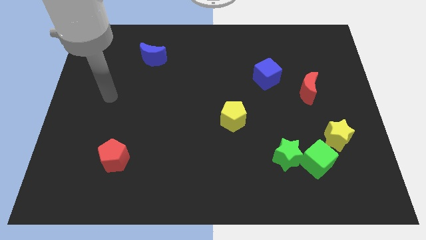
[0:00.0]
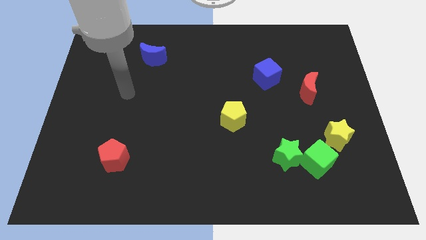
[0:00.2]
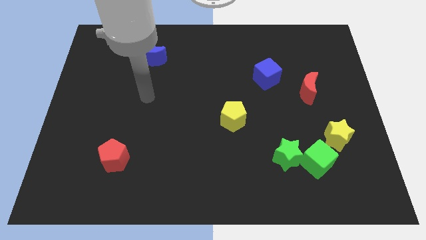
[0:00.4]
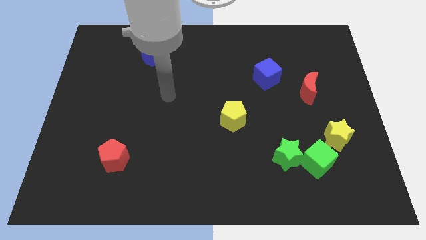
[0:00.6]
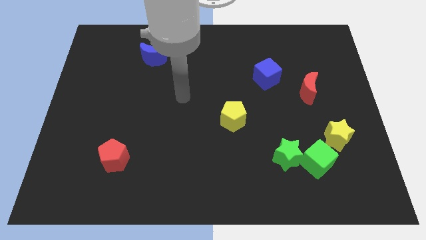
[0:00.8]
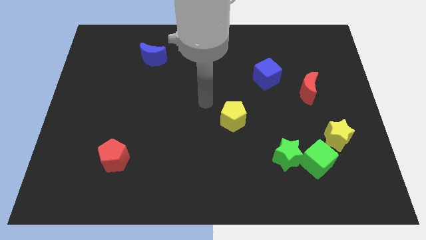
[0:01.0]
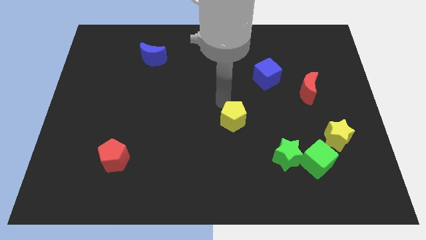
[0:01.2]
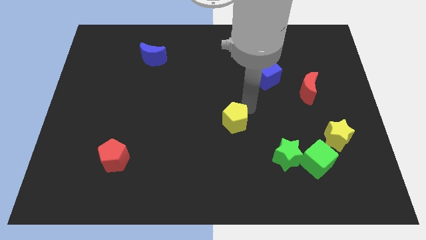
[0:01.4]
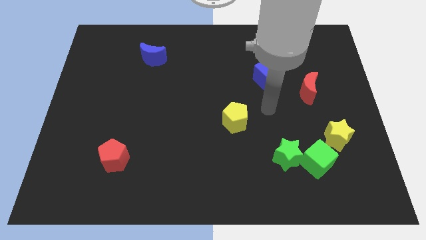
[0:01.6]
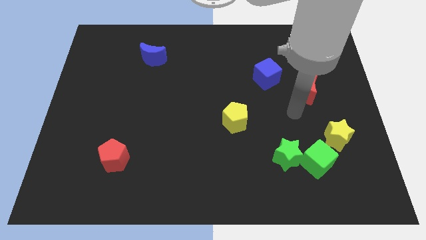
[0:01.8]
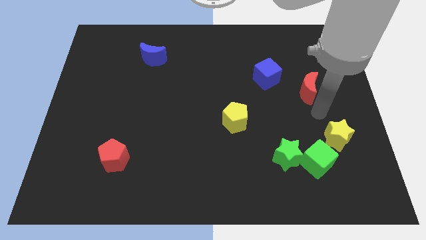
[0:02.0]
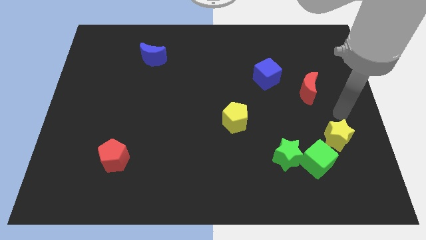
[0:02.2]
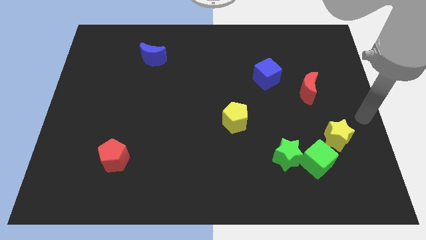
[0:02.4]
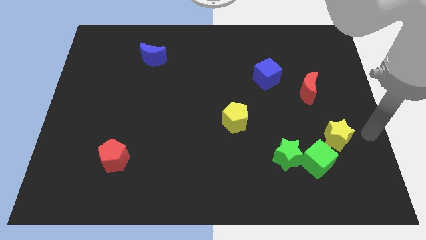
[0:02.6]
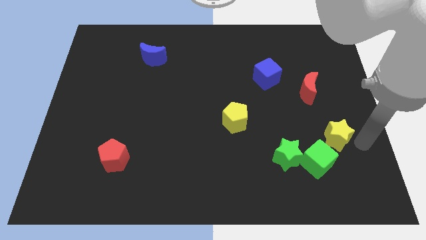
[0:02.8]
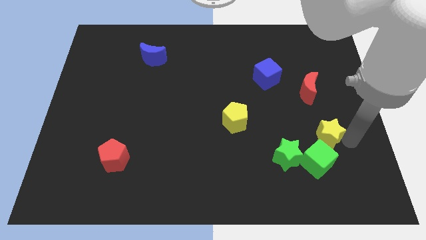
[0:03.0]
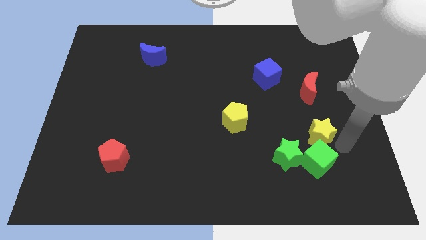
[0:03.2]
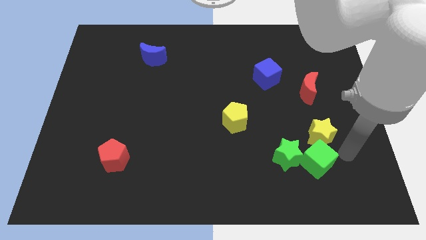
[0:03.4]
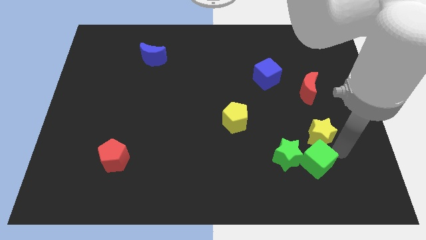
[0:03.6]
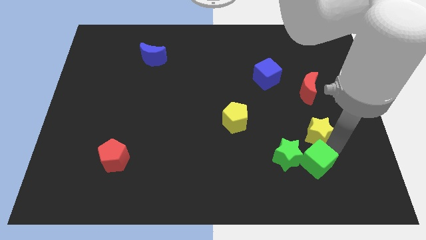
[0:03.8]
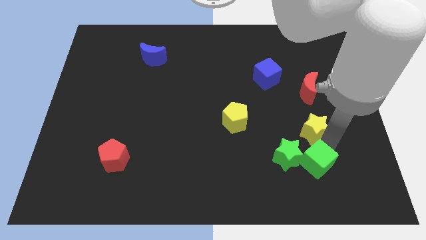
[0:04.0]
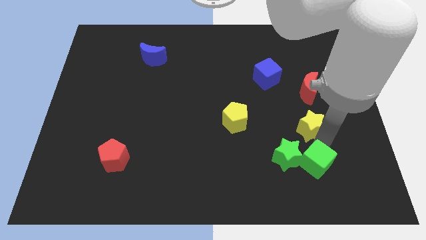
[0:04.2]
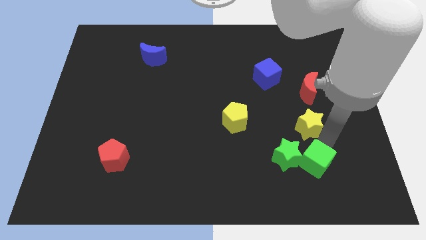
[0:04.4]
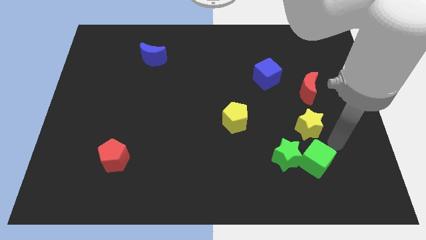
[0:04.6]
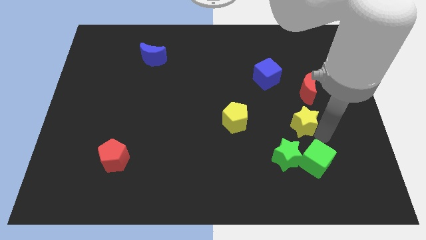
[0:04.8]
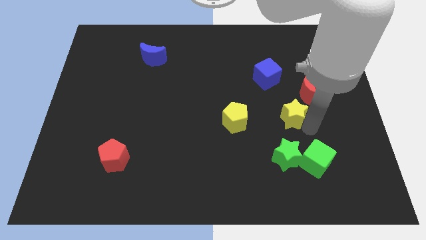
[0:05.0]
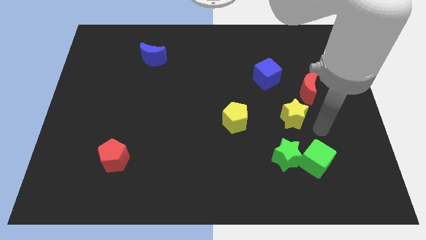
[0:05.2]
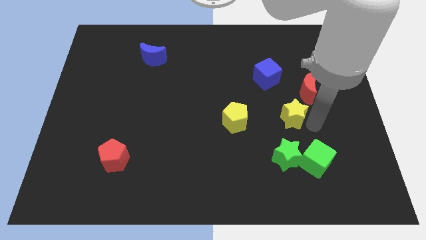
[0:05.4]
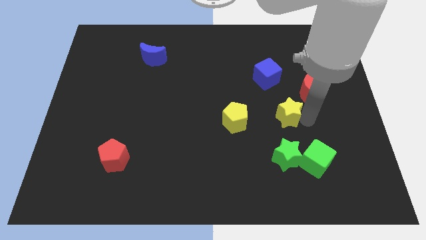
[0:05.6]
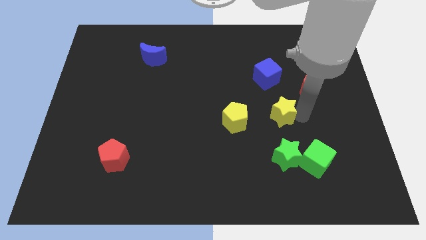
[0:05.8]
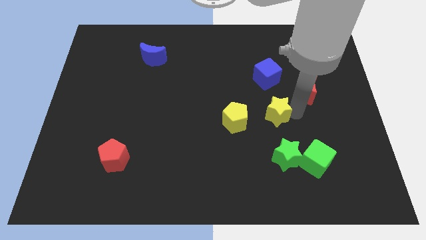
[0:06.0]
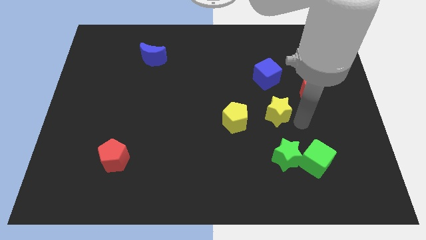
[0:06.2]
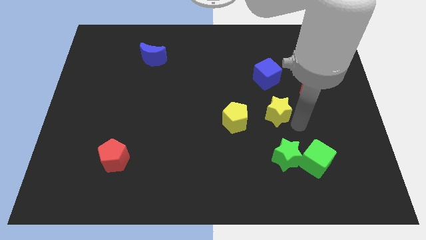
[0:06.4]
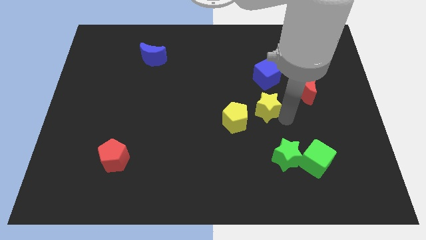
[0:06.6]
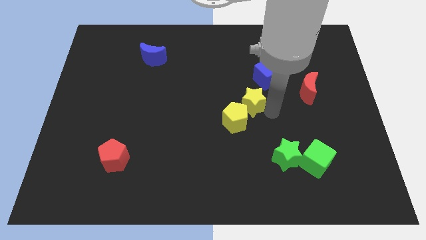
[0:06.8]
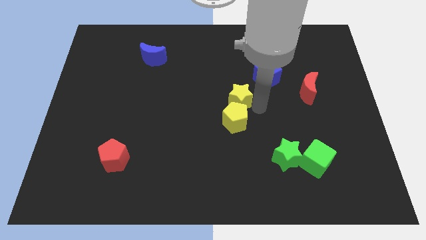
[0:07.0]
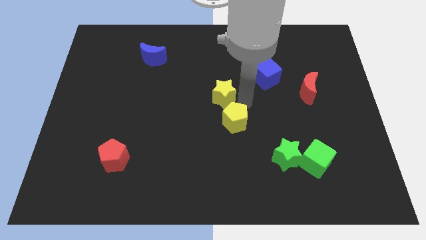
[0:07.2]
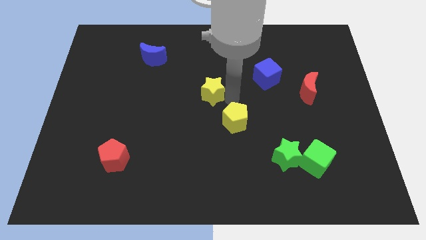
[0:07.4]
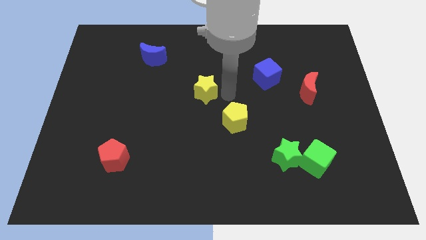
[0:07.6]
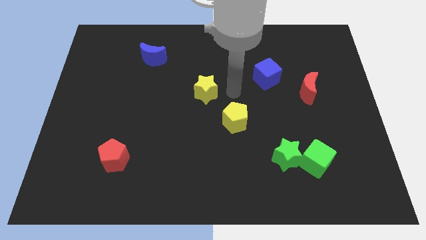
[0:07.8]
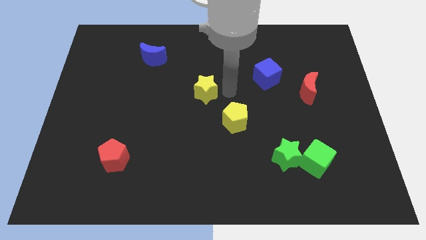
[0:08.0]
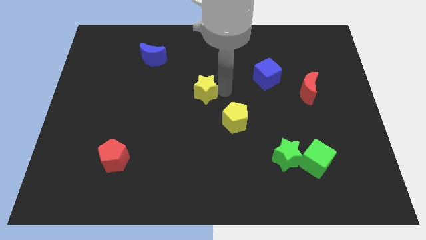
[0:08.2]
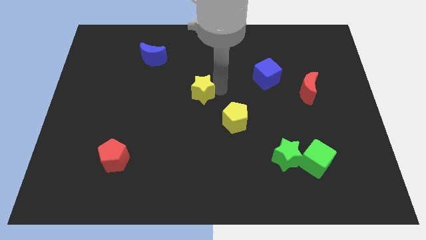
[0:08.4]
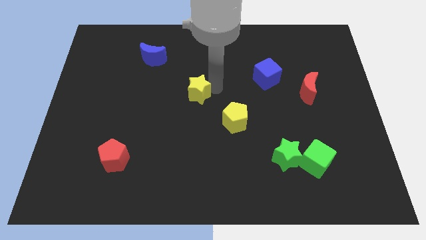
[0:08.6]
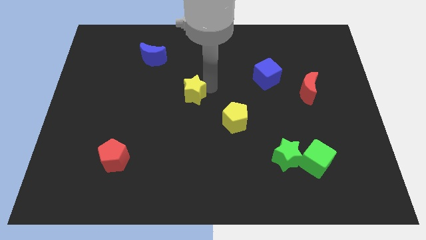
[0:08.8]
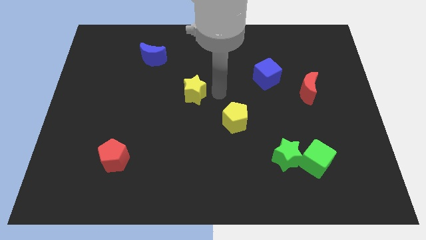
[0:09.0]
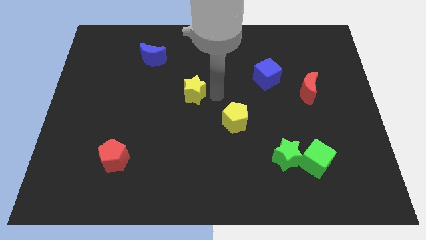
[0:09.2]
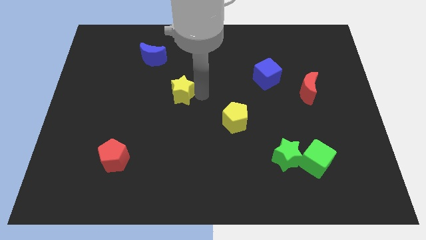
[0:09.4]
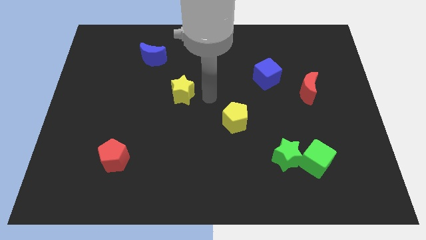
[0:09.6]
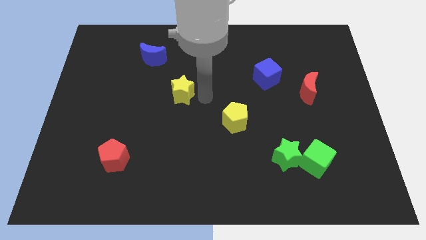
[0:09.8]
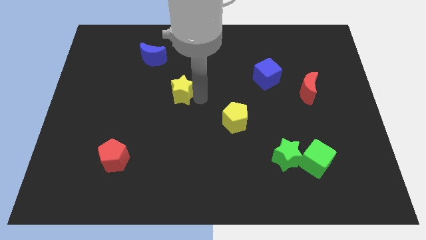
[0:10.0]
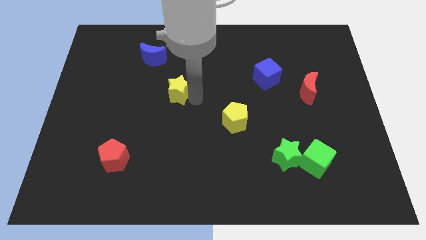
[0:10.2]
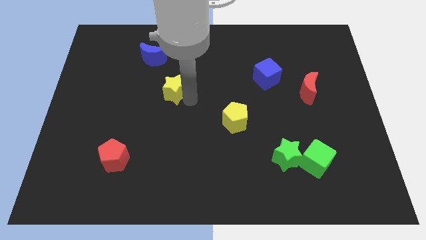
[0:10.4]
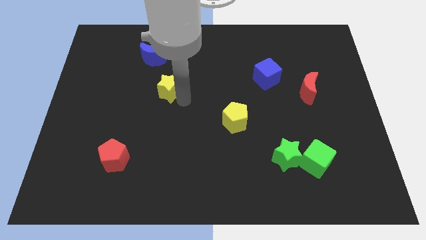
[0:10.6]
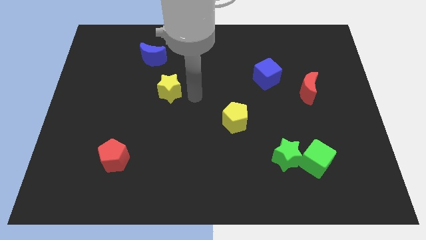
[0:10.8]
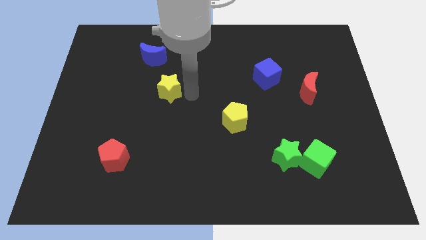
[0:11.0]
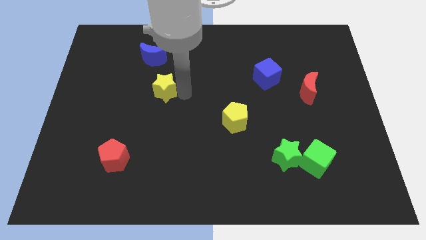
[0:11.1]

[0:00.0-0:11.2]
put the yellow star below the blue moon
